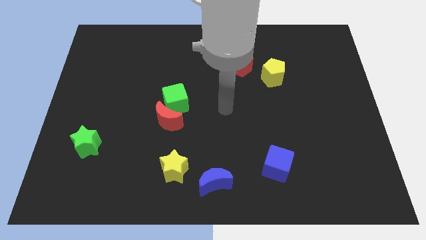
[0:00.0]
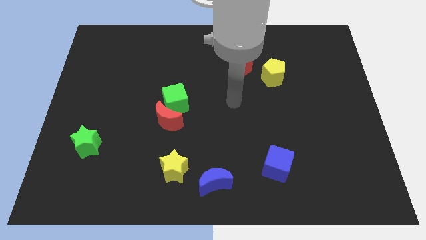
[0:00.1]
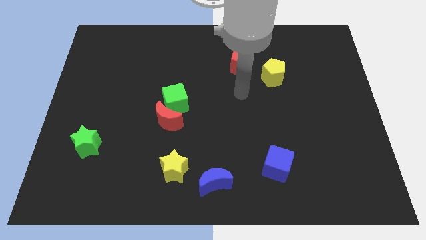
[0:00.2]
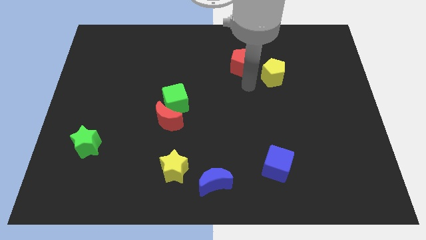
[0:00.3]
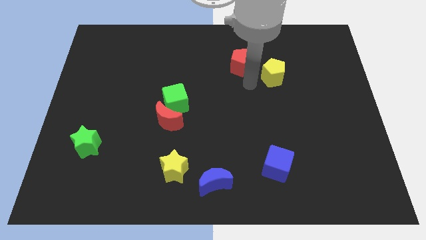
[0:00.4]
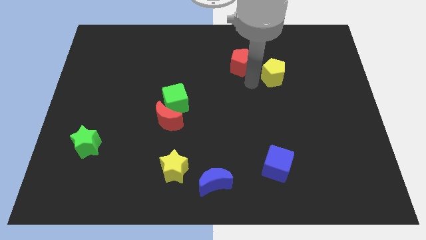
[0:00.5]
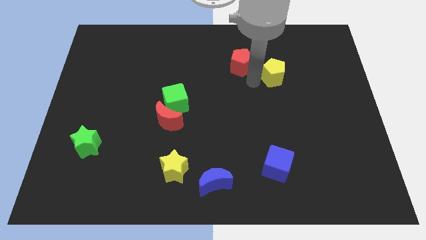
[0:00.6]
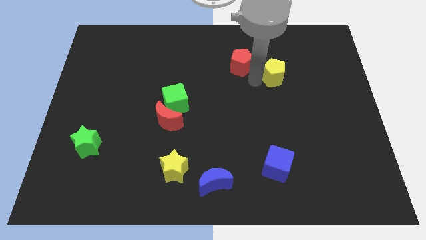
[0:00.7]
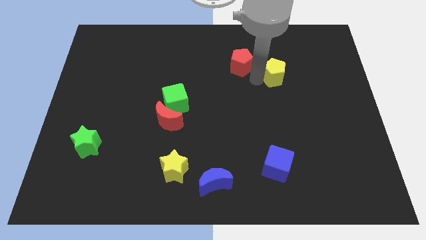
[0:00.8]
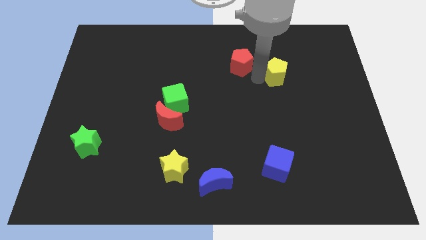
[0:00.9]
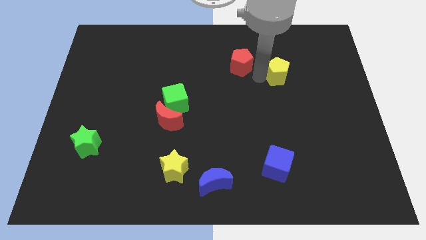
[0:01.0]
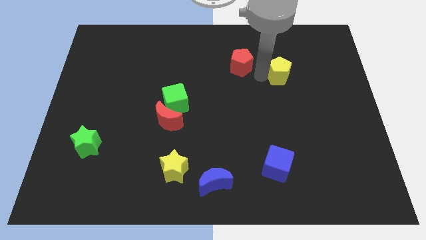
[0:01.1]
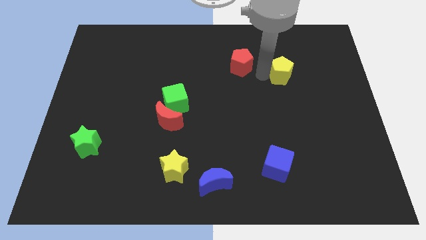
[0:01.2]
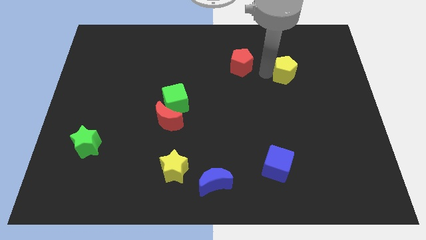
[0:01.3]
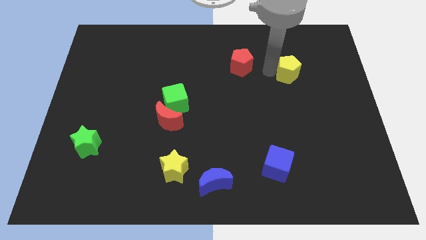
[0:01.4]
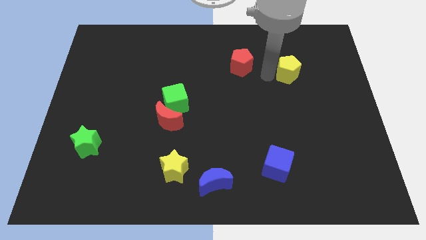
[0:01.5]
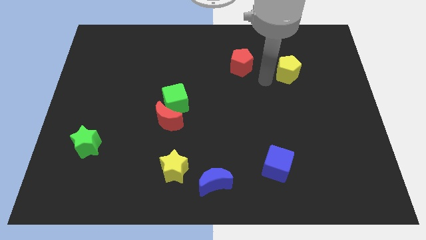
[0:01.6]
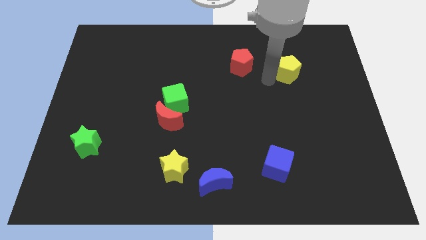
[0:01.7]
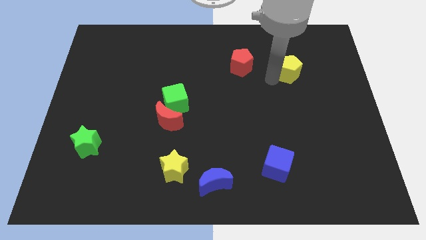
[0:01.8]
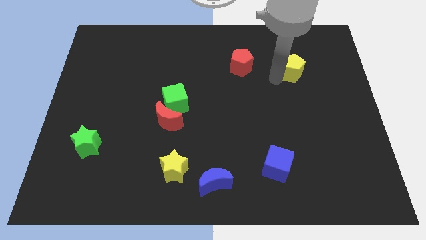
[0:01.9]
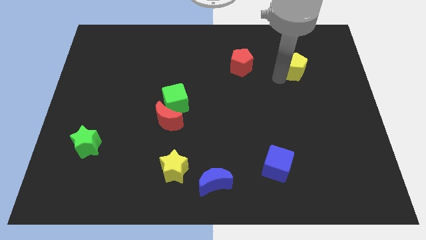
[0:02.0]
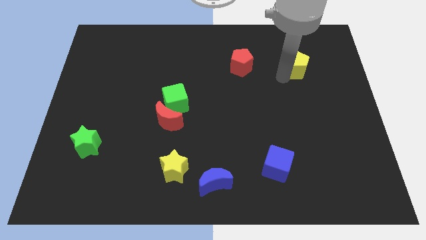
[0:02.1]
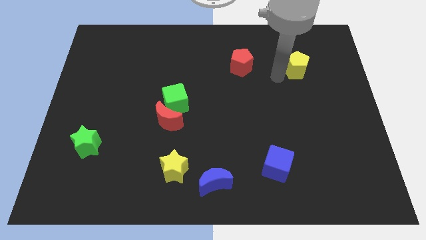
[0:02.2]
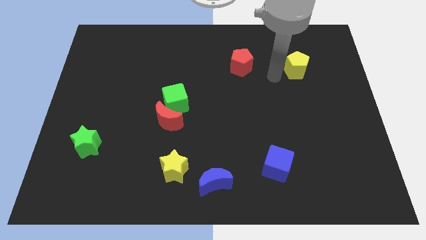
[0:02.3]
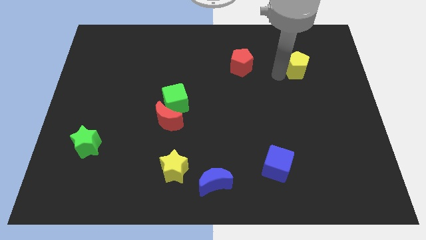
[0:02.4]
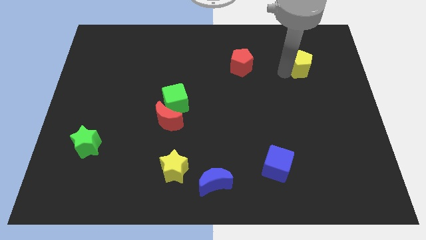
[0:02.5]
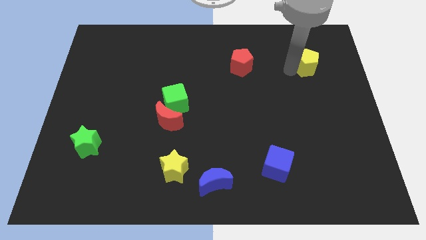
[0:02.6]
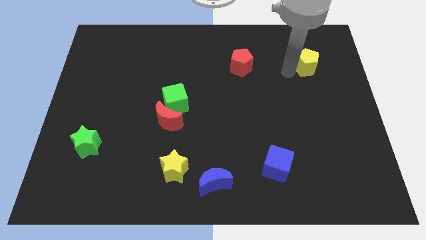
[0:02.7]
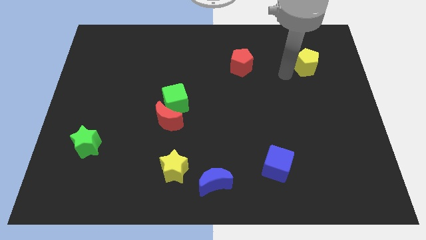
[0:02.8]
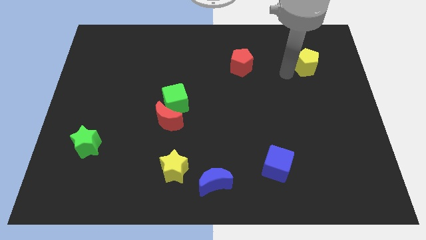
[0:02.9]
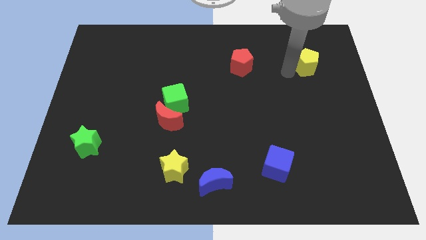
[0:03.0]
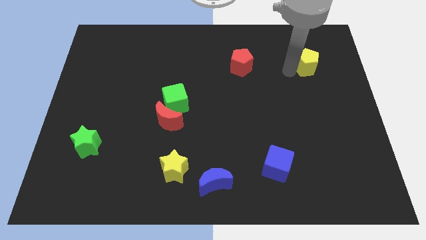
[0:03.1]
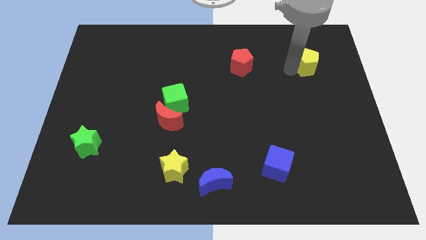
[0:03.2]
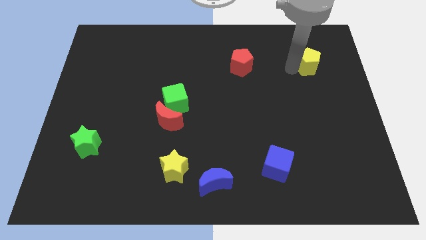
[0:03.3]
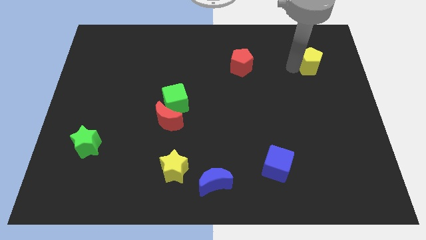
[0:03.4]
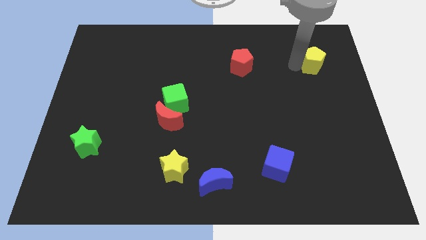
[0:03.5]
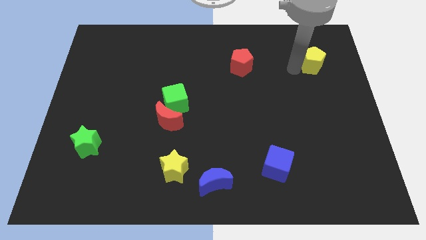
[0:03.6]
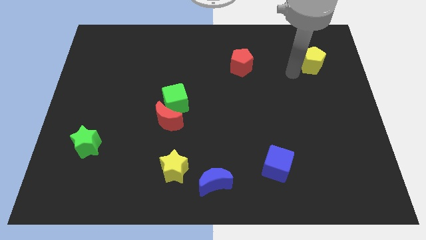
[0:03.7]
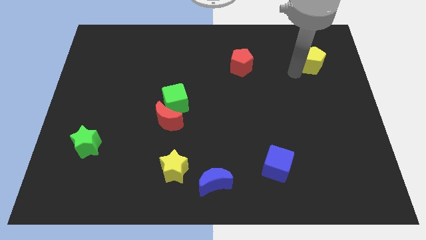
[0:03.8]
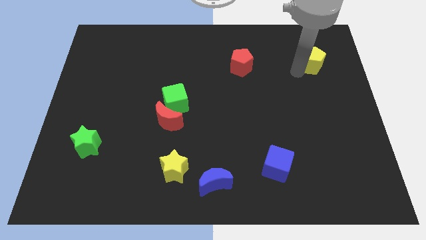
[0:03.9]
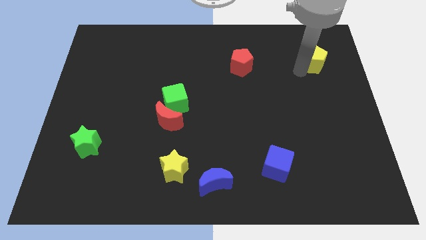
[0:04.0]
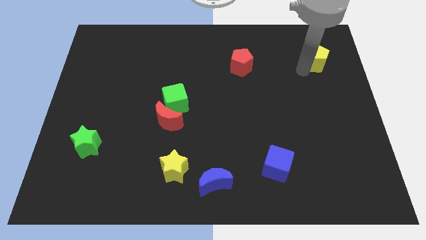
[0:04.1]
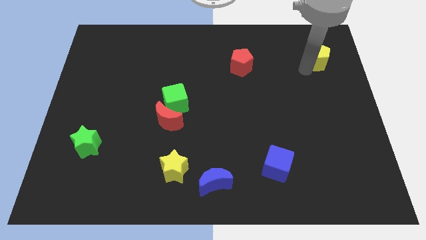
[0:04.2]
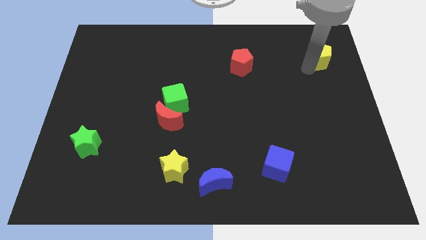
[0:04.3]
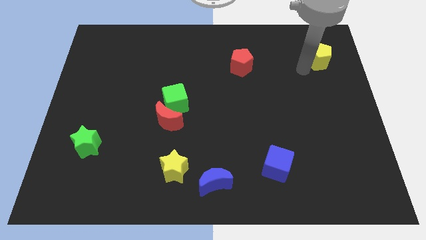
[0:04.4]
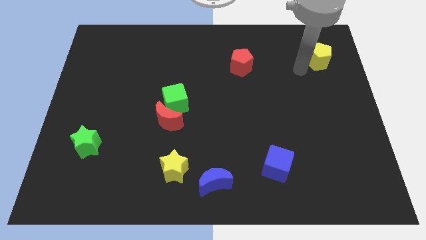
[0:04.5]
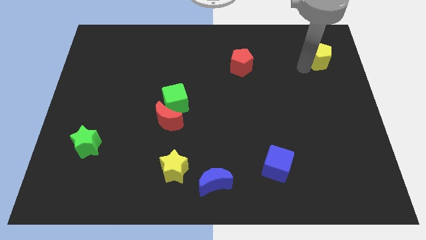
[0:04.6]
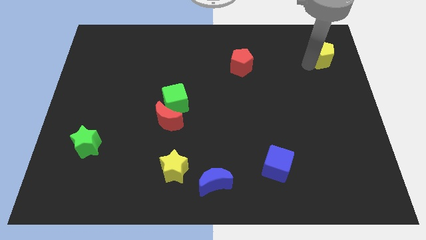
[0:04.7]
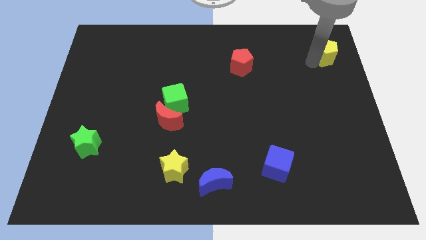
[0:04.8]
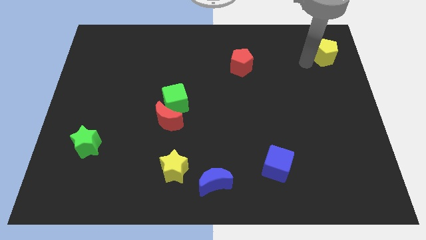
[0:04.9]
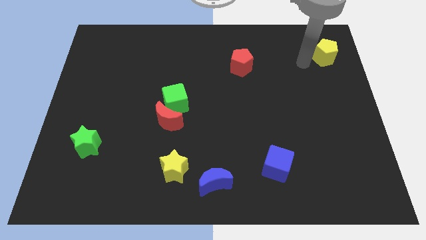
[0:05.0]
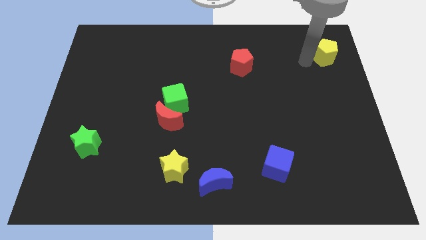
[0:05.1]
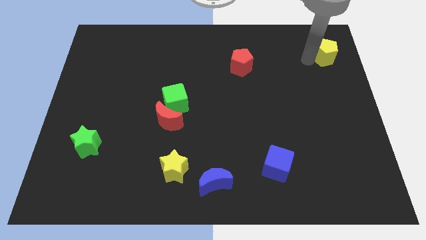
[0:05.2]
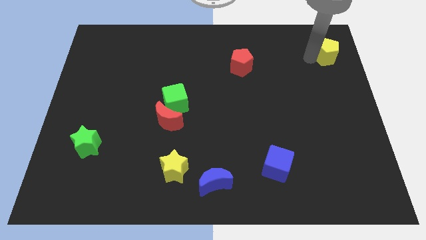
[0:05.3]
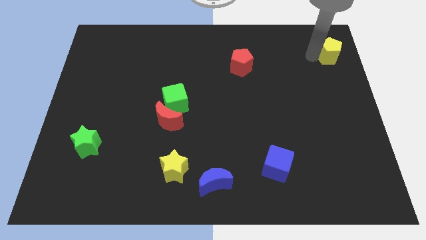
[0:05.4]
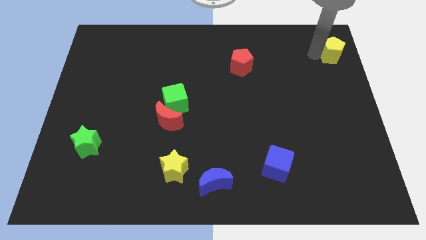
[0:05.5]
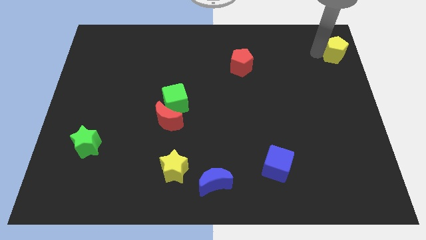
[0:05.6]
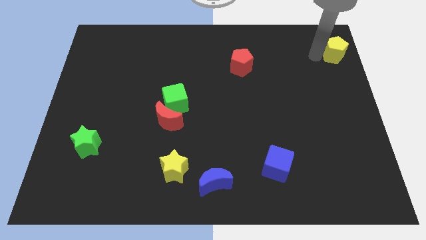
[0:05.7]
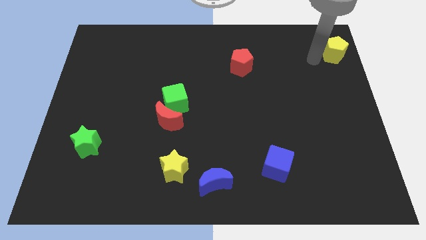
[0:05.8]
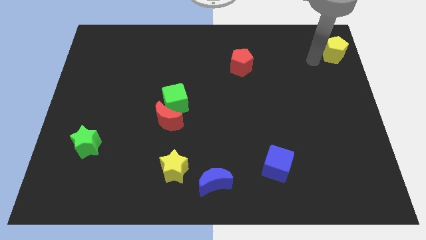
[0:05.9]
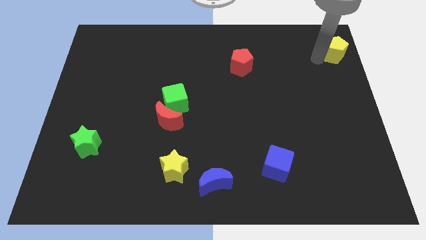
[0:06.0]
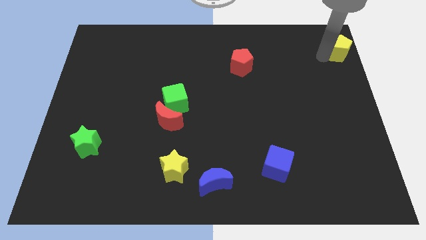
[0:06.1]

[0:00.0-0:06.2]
slide the yellow pentagon to the upper right corner
